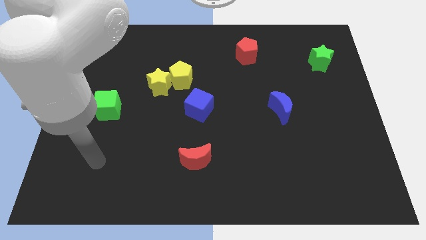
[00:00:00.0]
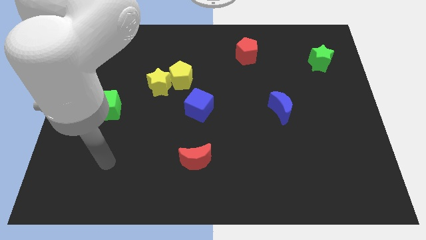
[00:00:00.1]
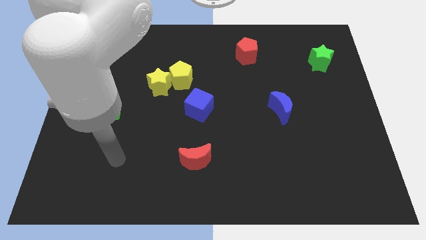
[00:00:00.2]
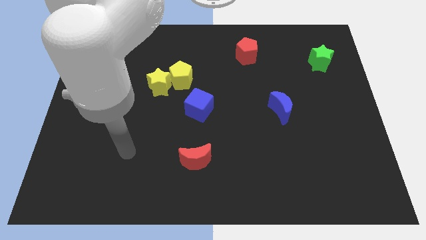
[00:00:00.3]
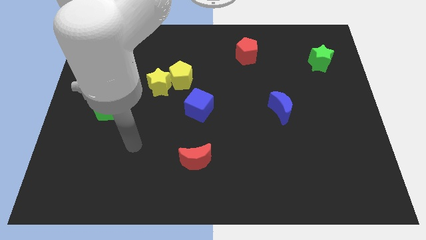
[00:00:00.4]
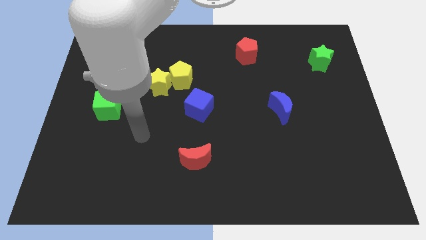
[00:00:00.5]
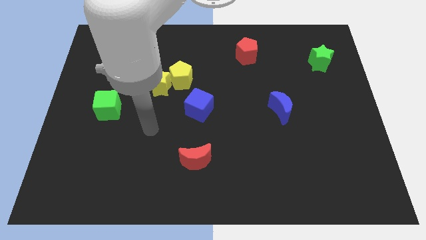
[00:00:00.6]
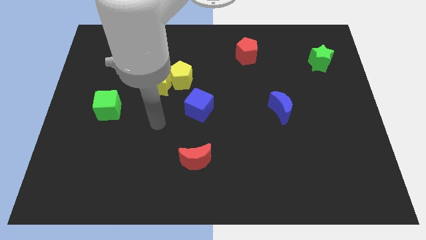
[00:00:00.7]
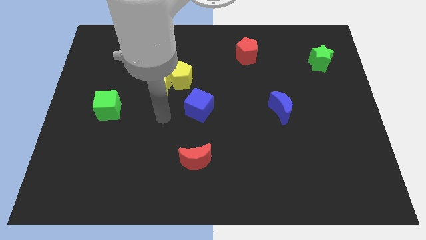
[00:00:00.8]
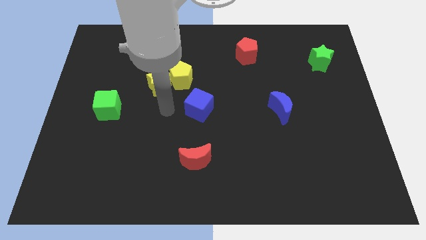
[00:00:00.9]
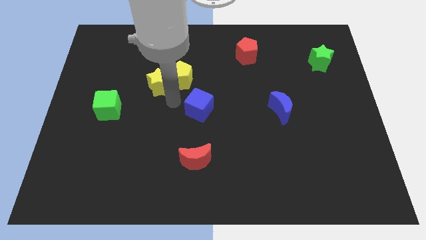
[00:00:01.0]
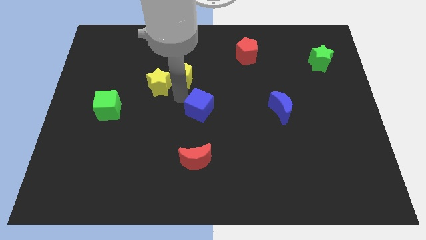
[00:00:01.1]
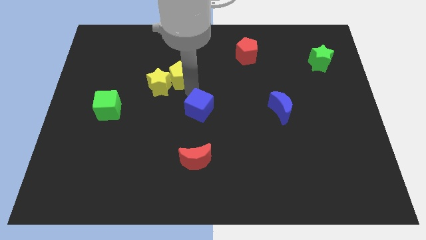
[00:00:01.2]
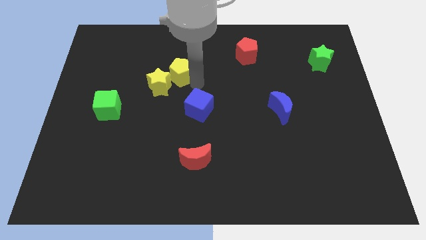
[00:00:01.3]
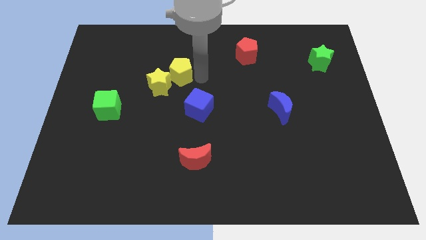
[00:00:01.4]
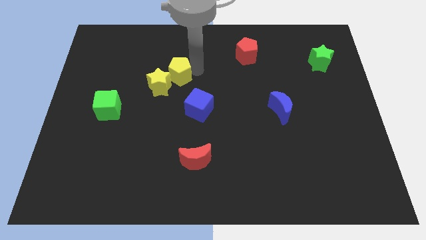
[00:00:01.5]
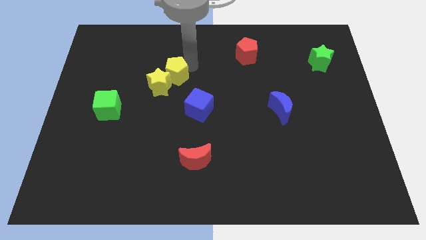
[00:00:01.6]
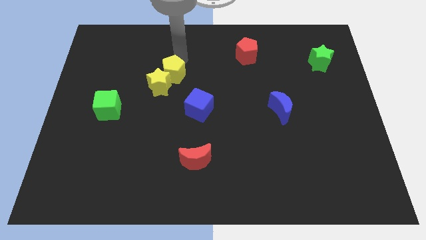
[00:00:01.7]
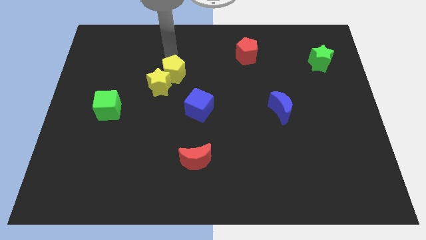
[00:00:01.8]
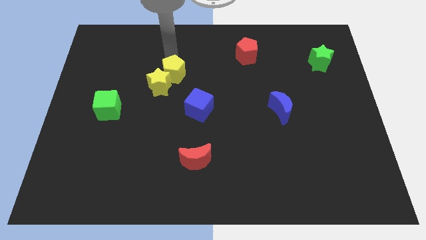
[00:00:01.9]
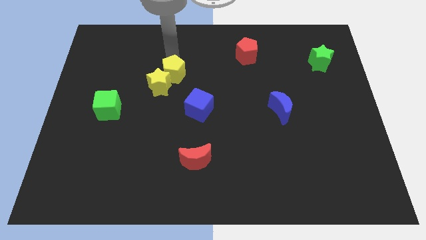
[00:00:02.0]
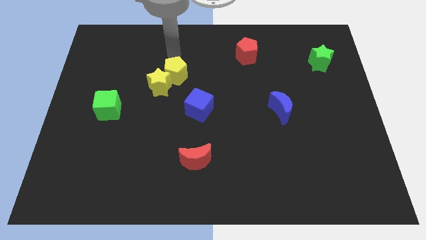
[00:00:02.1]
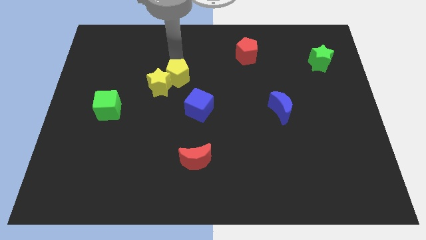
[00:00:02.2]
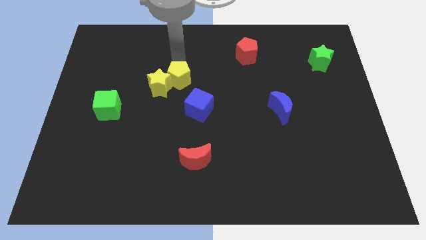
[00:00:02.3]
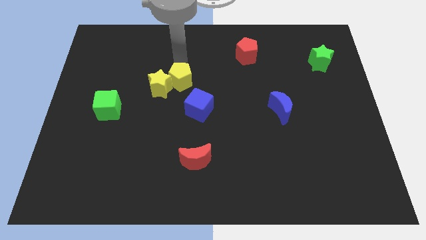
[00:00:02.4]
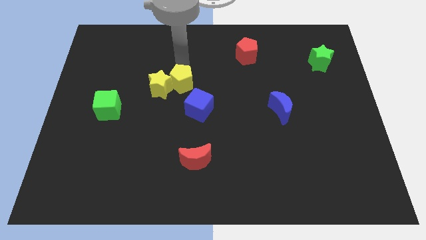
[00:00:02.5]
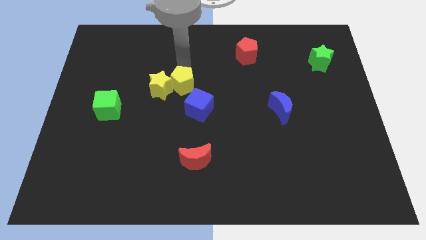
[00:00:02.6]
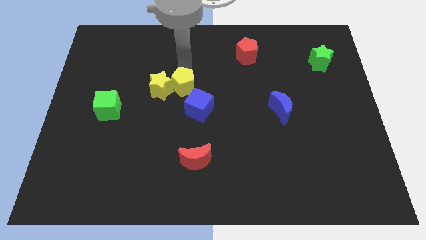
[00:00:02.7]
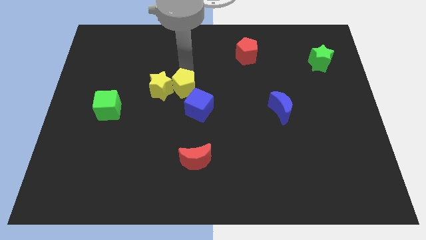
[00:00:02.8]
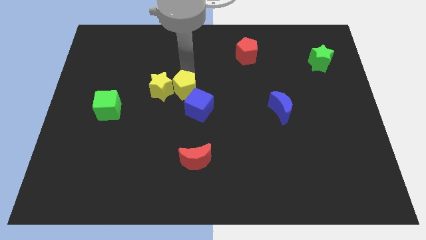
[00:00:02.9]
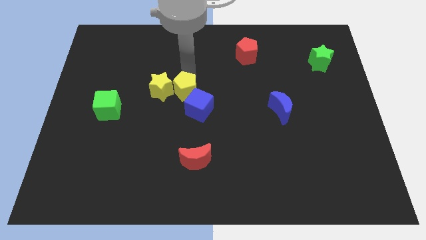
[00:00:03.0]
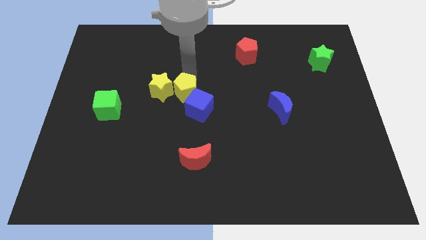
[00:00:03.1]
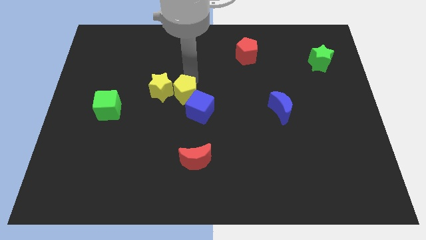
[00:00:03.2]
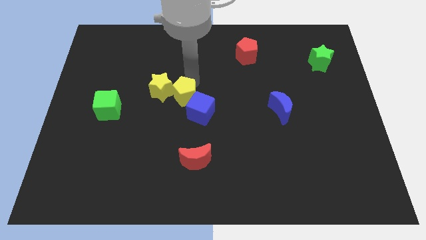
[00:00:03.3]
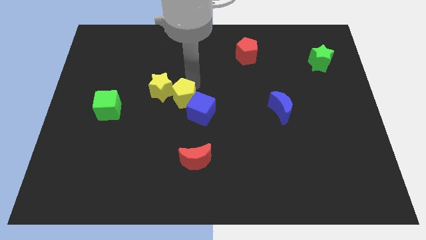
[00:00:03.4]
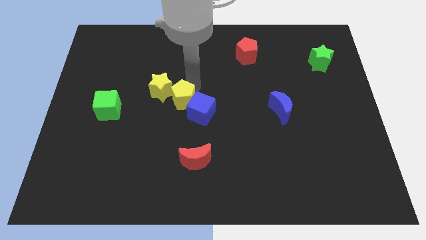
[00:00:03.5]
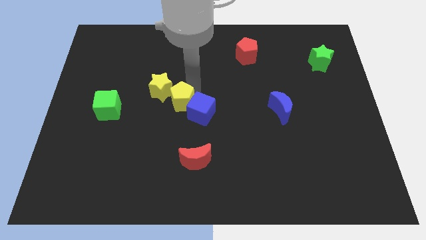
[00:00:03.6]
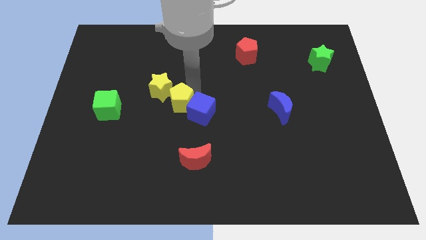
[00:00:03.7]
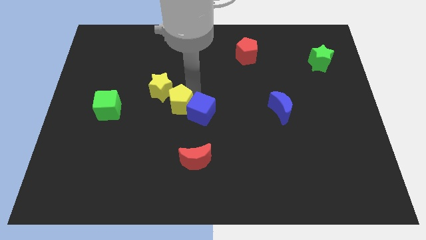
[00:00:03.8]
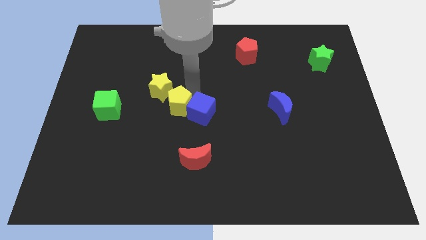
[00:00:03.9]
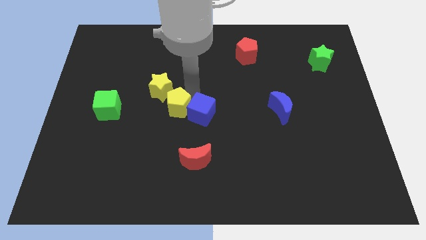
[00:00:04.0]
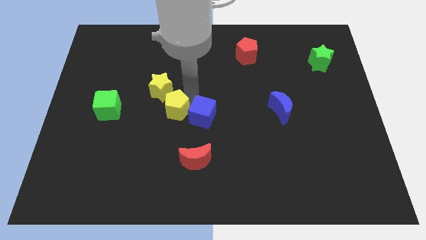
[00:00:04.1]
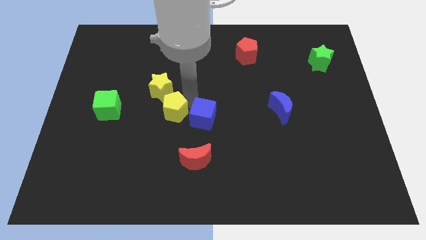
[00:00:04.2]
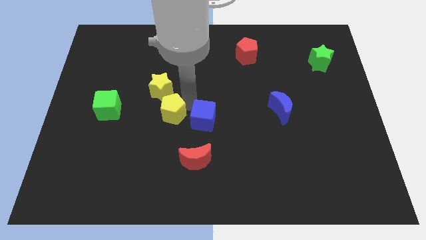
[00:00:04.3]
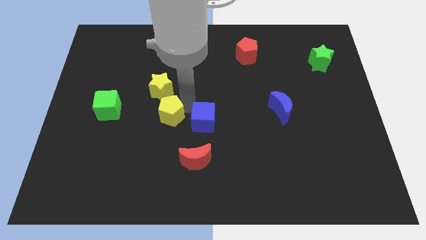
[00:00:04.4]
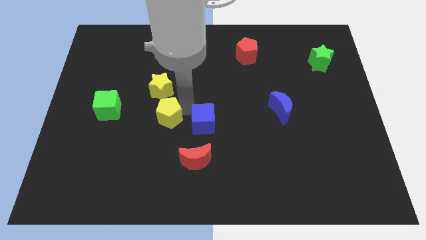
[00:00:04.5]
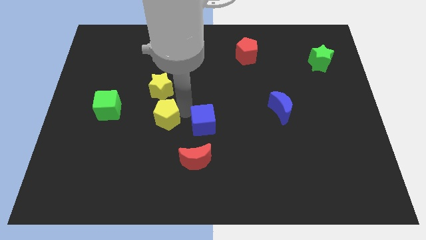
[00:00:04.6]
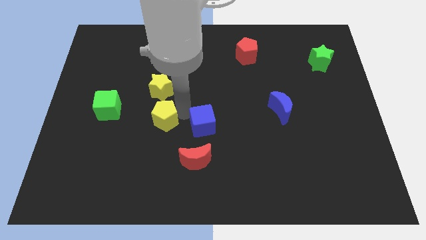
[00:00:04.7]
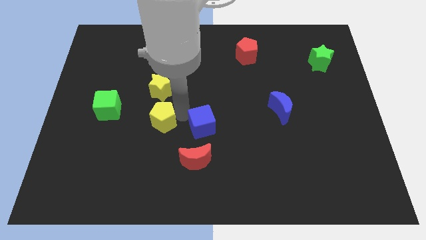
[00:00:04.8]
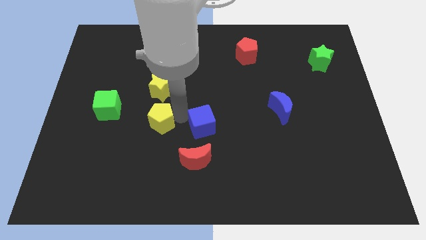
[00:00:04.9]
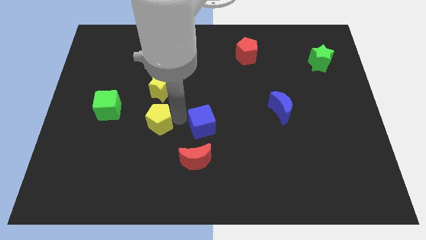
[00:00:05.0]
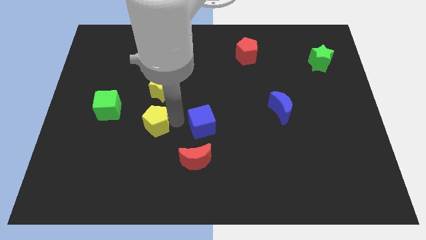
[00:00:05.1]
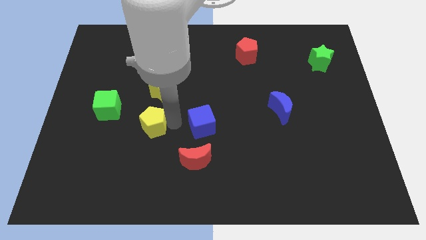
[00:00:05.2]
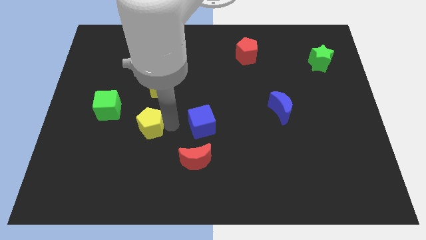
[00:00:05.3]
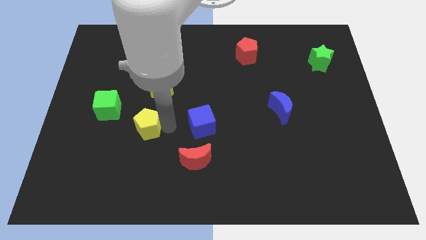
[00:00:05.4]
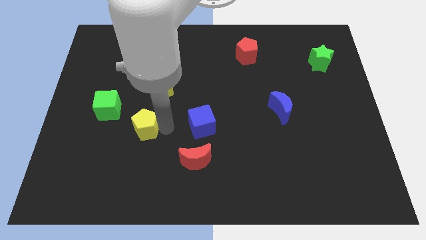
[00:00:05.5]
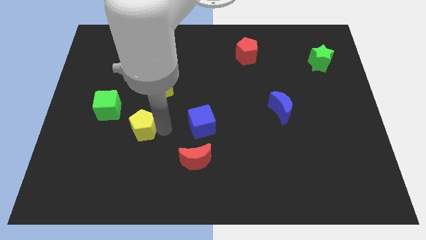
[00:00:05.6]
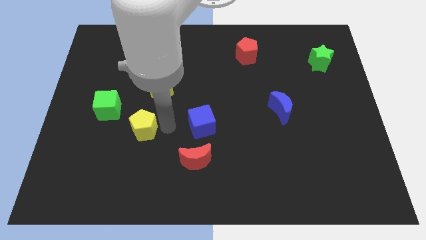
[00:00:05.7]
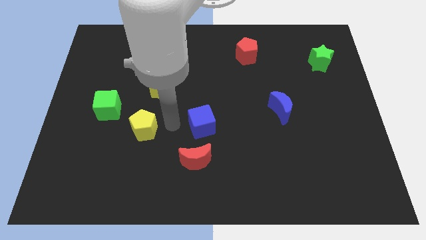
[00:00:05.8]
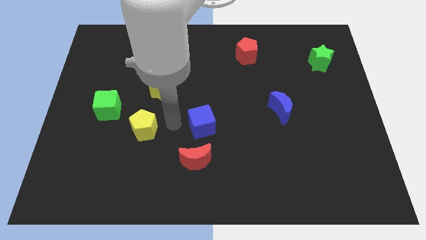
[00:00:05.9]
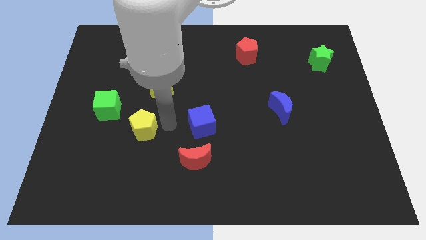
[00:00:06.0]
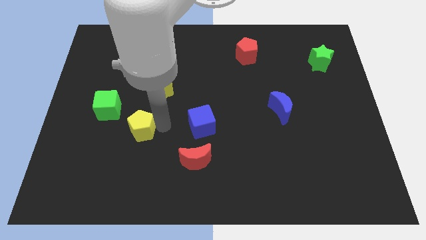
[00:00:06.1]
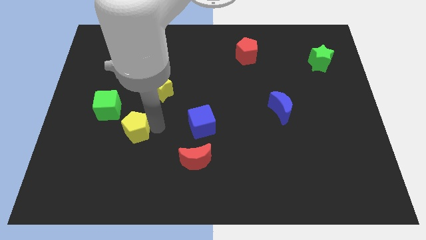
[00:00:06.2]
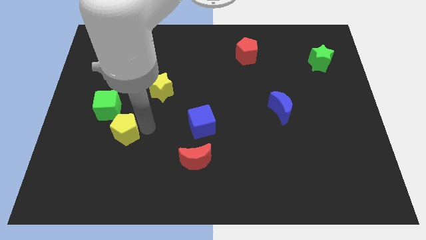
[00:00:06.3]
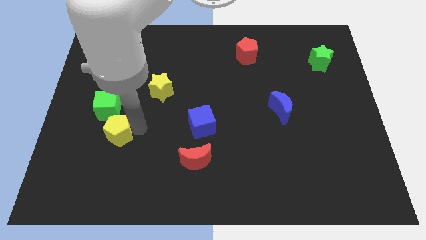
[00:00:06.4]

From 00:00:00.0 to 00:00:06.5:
move the yellow pentagon below the green cube

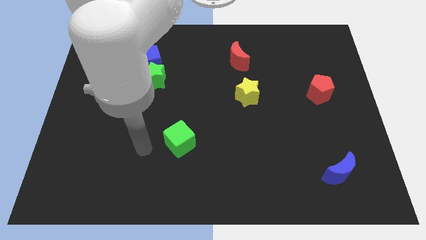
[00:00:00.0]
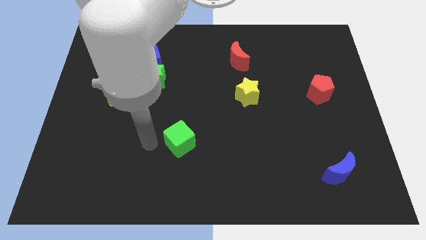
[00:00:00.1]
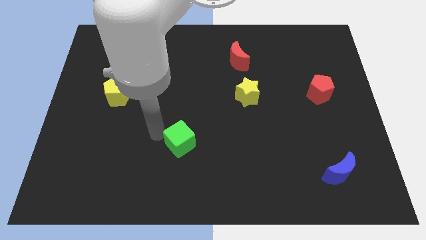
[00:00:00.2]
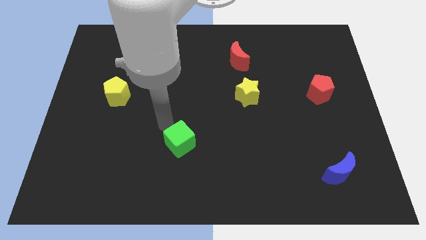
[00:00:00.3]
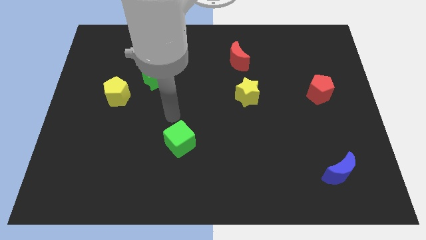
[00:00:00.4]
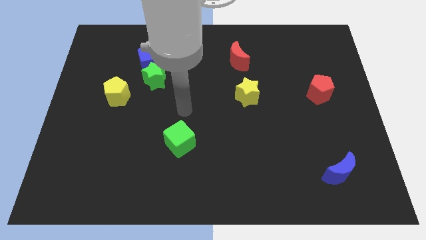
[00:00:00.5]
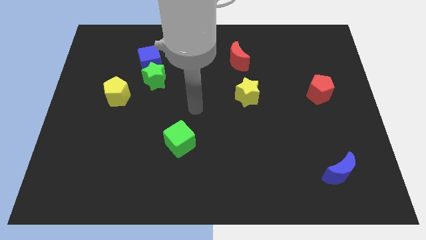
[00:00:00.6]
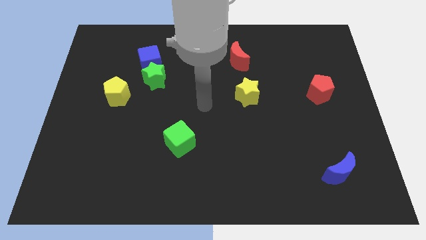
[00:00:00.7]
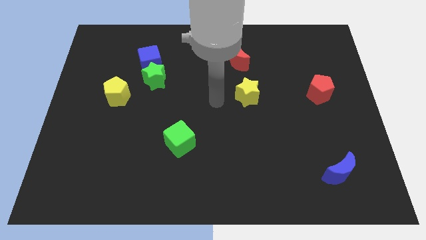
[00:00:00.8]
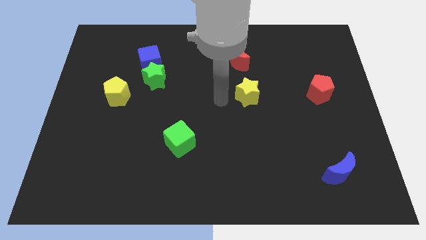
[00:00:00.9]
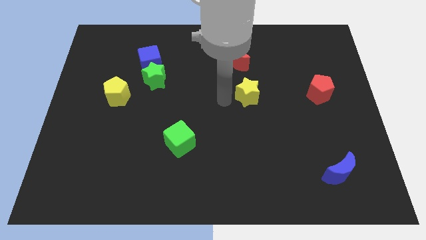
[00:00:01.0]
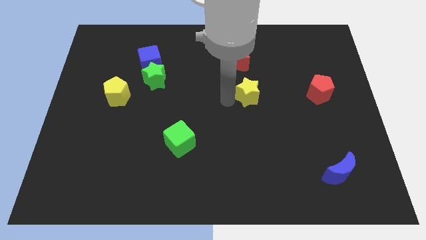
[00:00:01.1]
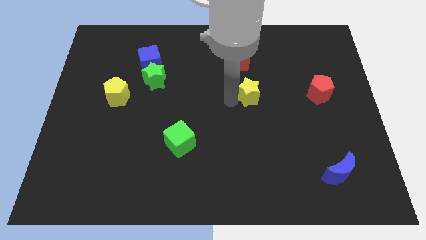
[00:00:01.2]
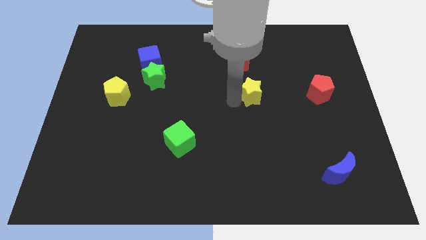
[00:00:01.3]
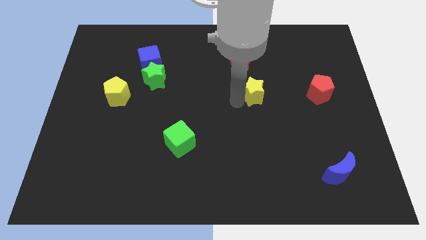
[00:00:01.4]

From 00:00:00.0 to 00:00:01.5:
slide the yellow star to the left of the red pentagon
